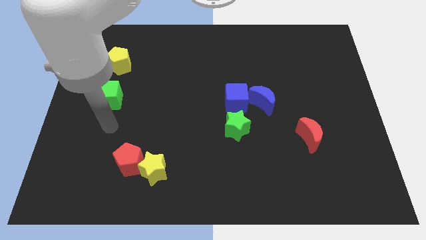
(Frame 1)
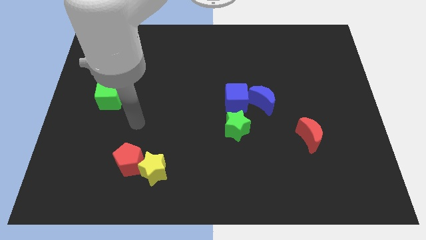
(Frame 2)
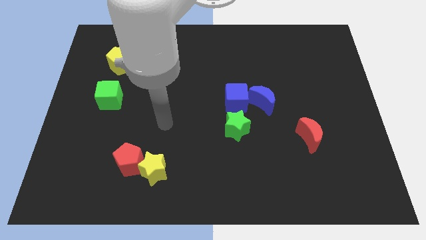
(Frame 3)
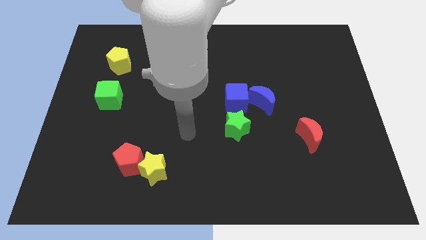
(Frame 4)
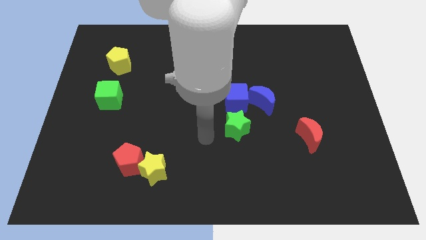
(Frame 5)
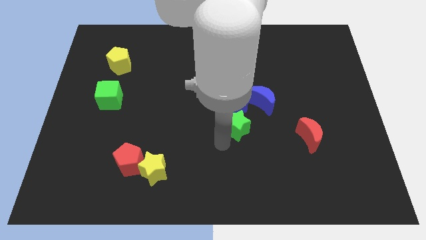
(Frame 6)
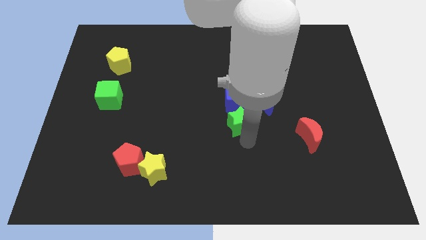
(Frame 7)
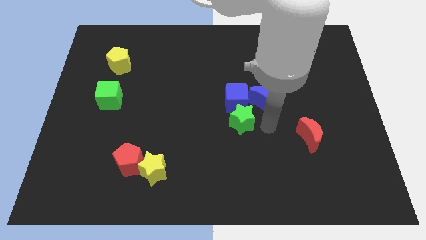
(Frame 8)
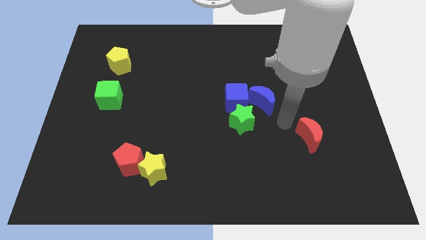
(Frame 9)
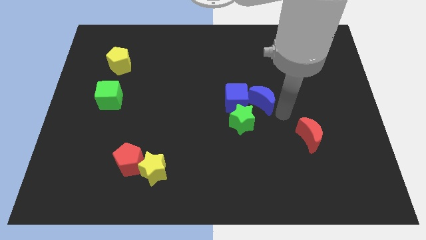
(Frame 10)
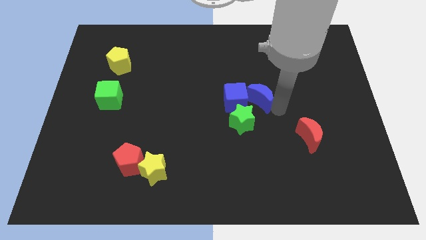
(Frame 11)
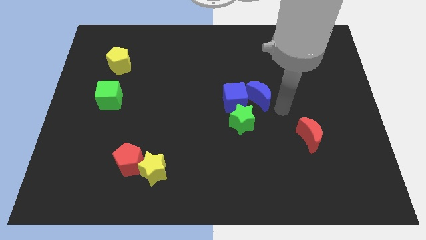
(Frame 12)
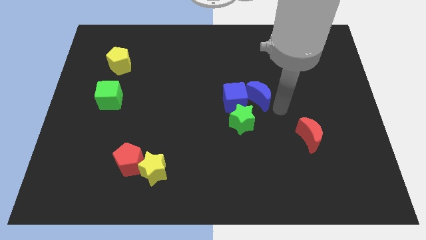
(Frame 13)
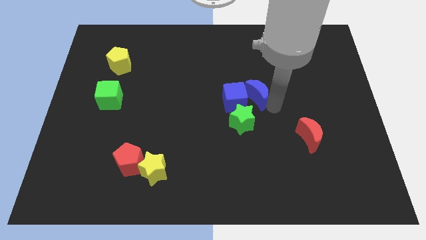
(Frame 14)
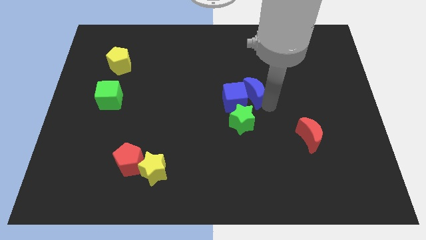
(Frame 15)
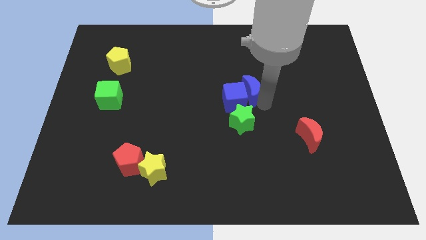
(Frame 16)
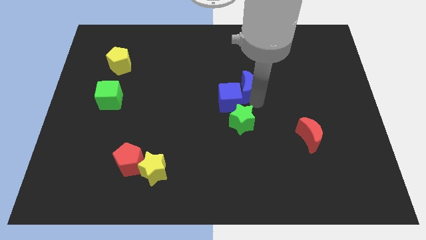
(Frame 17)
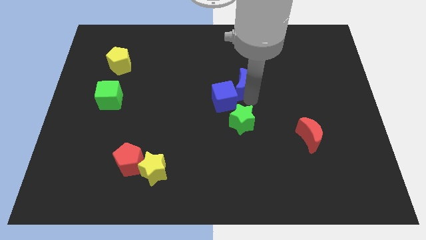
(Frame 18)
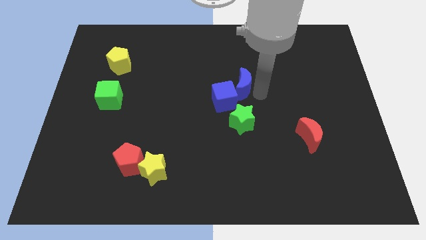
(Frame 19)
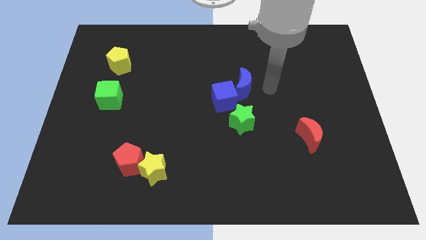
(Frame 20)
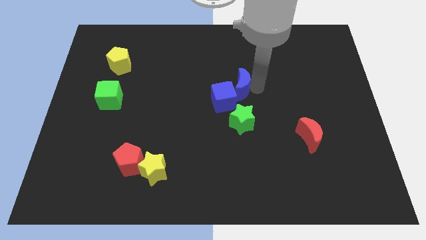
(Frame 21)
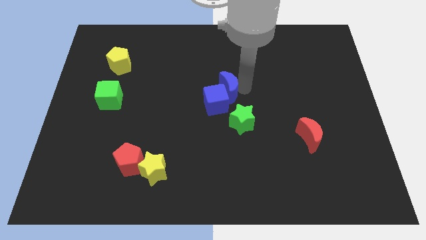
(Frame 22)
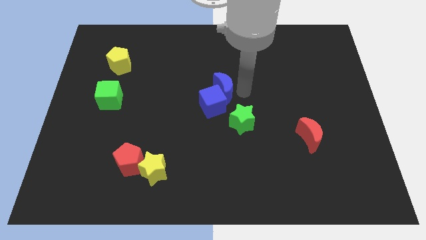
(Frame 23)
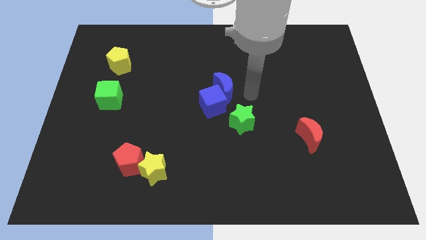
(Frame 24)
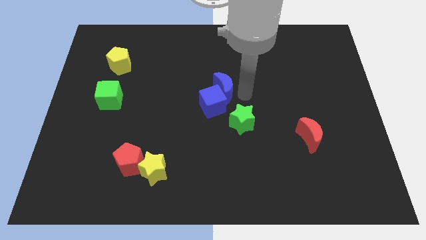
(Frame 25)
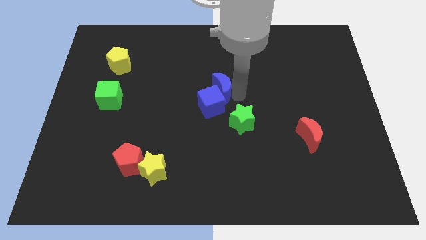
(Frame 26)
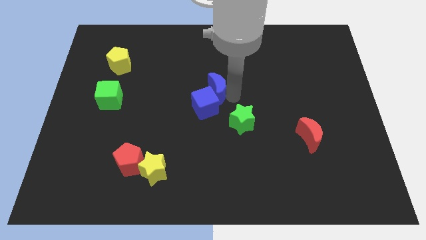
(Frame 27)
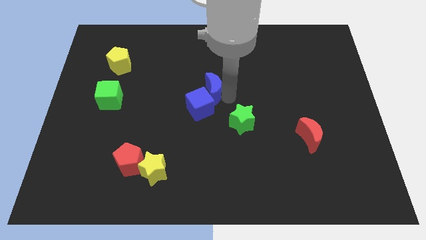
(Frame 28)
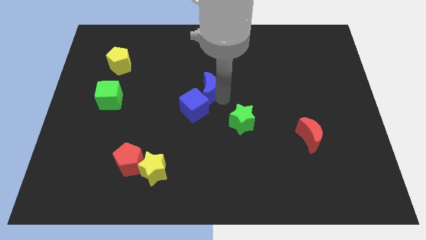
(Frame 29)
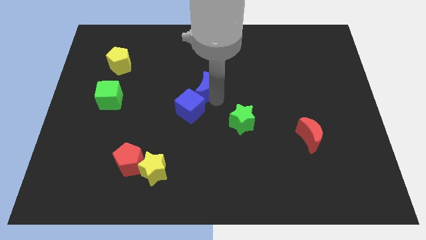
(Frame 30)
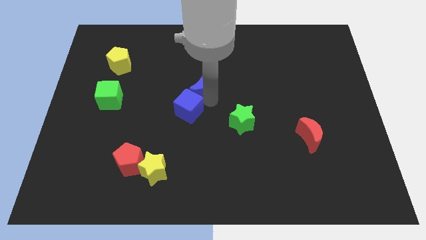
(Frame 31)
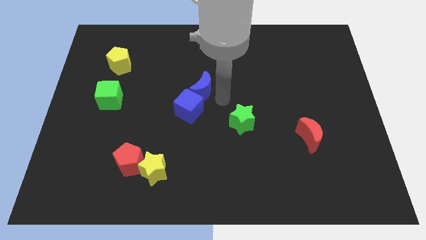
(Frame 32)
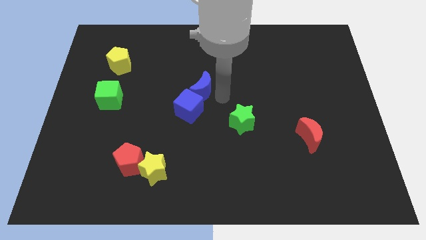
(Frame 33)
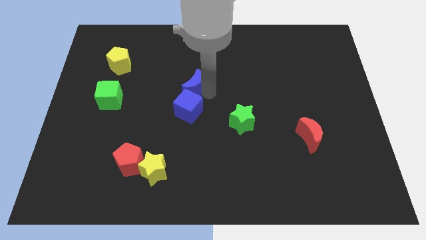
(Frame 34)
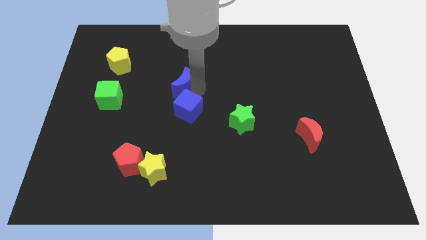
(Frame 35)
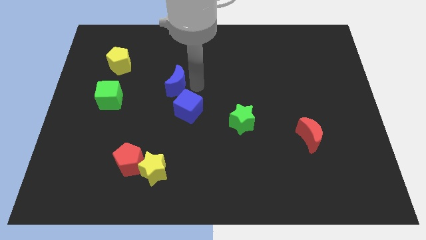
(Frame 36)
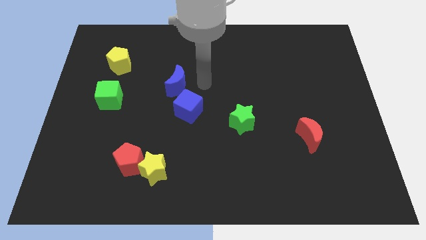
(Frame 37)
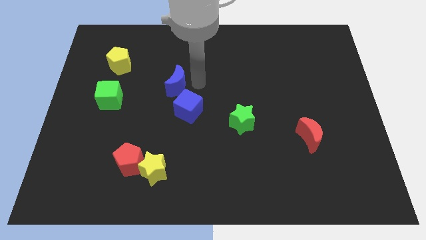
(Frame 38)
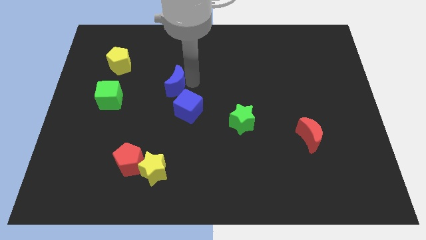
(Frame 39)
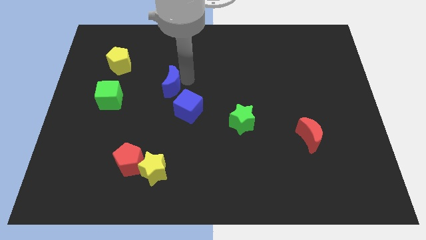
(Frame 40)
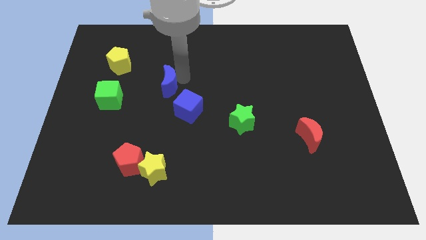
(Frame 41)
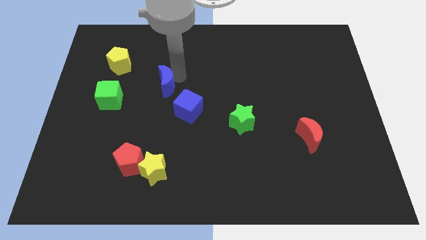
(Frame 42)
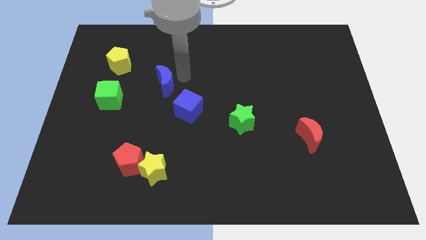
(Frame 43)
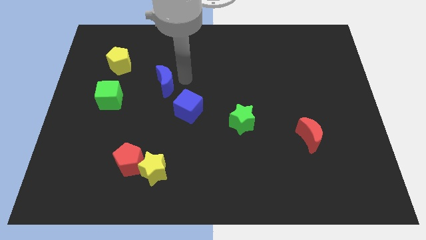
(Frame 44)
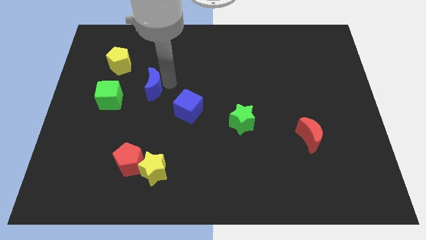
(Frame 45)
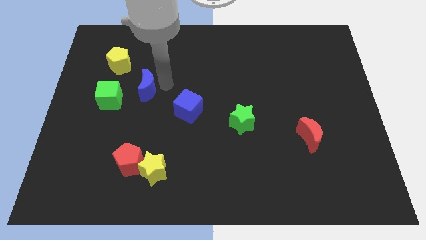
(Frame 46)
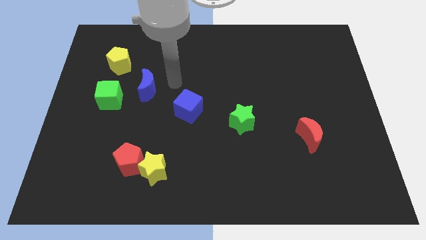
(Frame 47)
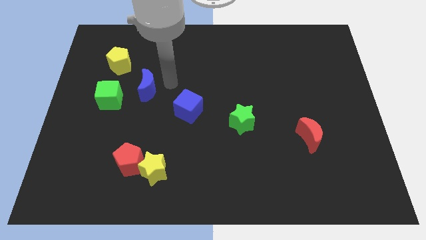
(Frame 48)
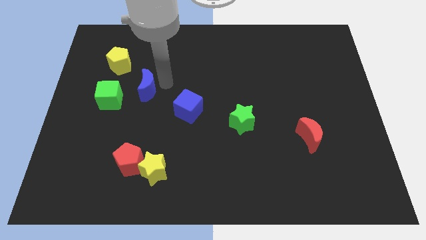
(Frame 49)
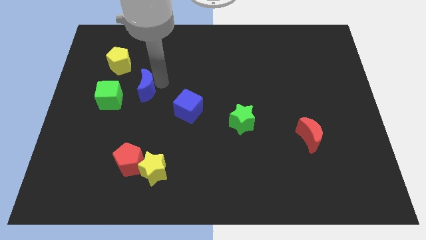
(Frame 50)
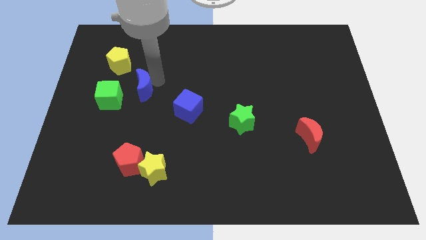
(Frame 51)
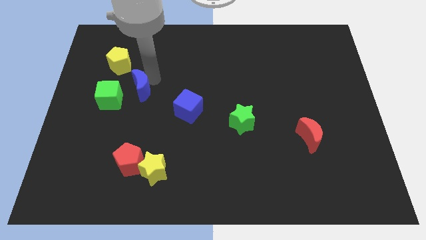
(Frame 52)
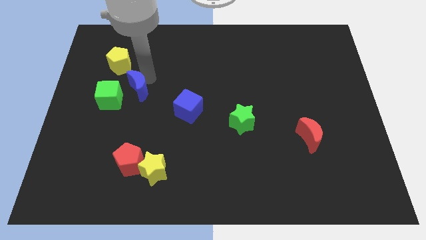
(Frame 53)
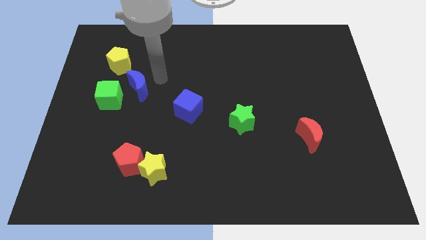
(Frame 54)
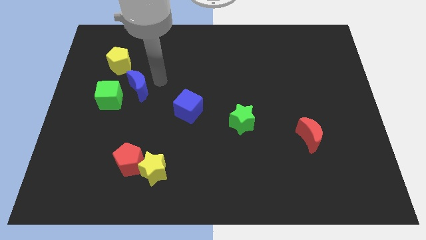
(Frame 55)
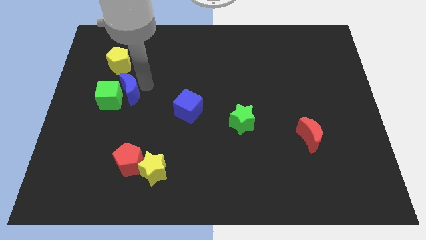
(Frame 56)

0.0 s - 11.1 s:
move the blue moon close to the green cube

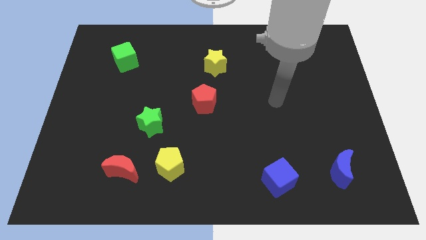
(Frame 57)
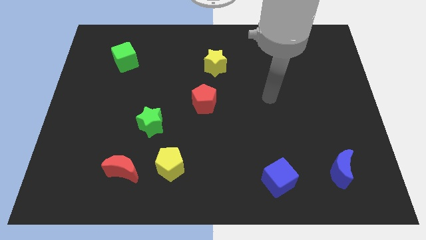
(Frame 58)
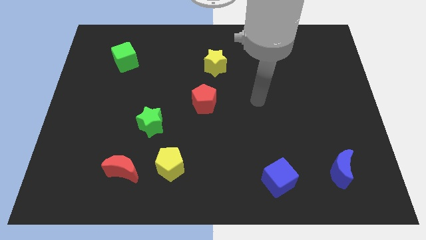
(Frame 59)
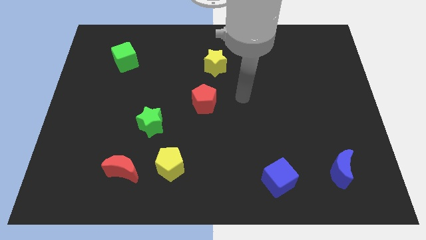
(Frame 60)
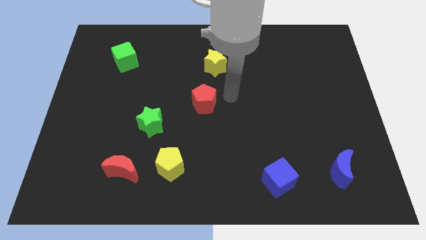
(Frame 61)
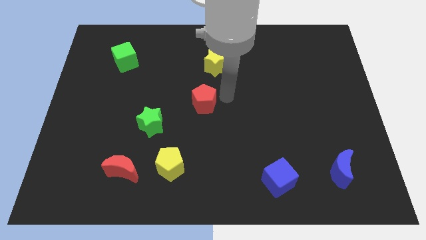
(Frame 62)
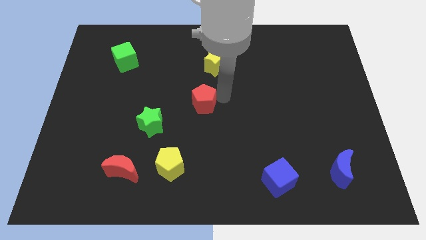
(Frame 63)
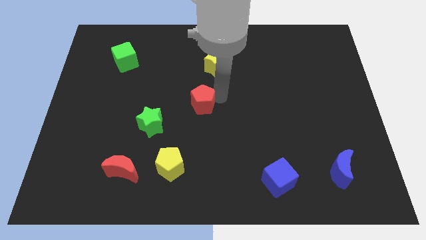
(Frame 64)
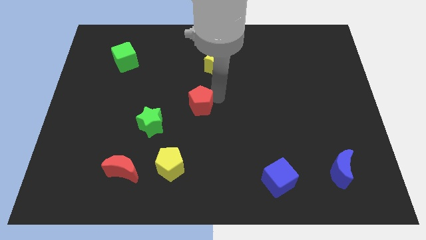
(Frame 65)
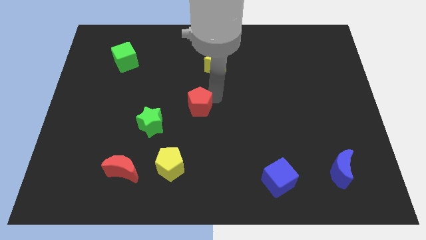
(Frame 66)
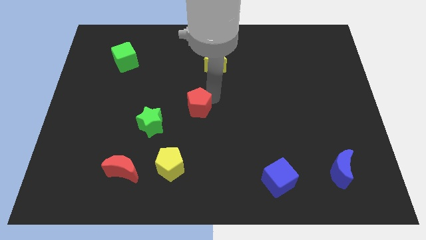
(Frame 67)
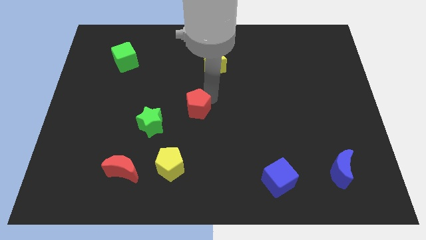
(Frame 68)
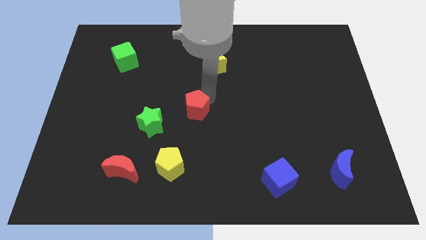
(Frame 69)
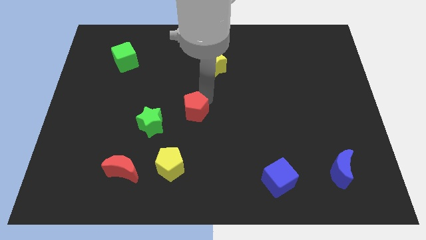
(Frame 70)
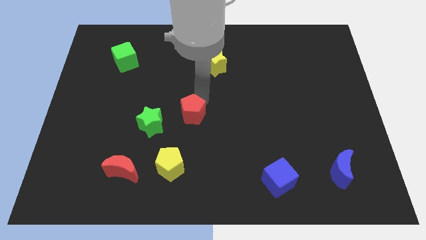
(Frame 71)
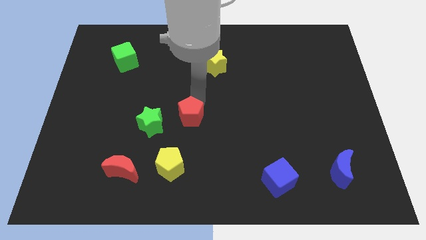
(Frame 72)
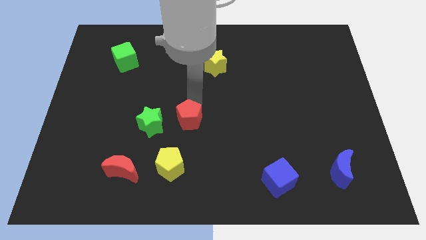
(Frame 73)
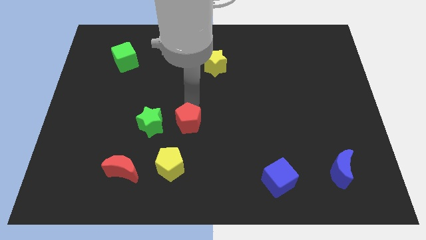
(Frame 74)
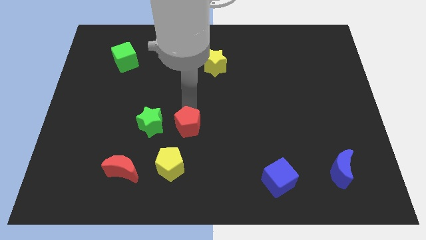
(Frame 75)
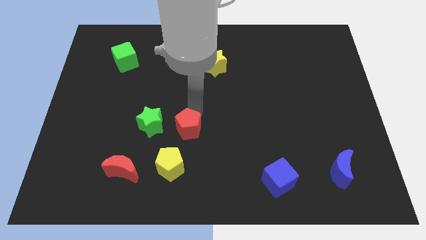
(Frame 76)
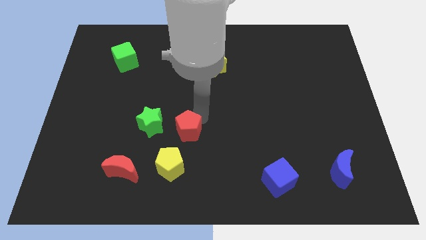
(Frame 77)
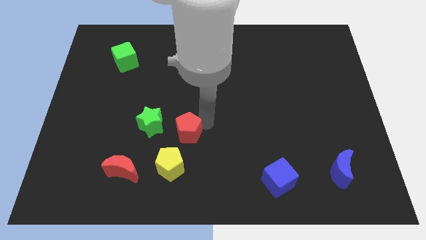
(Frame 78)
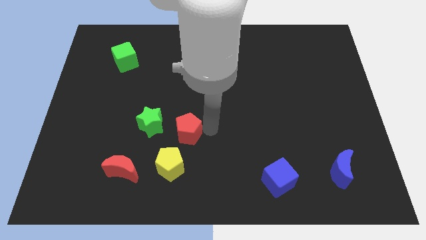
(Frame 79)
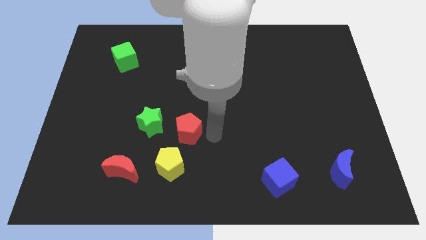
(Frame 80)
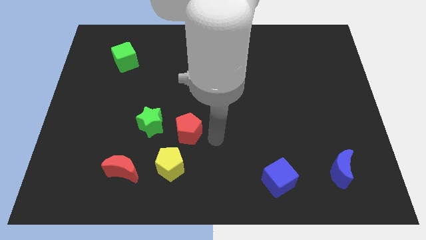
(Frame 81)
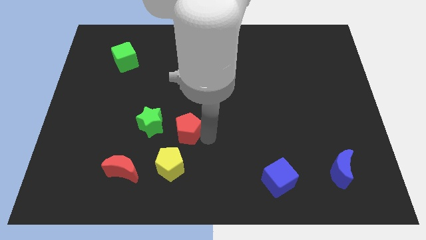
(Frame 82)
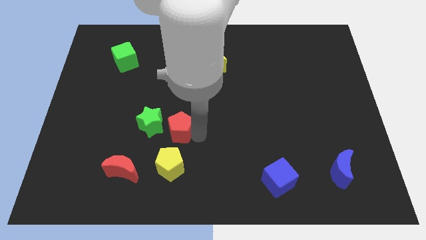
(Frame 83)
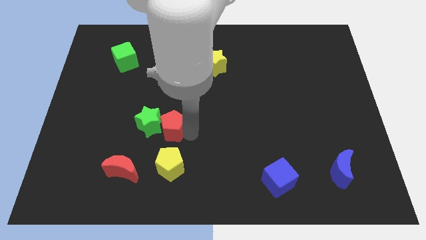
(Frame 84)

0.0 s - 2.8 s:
move the red pentagon to the green star
